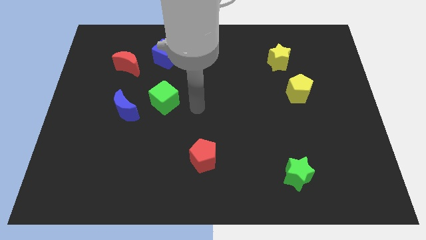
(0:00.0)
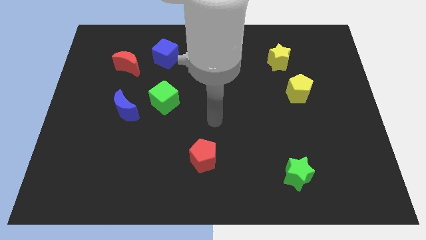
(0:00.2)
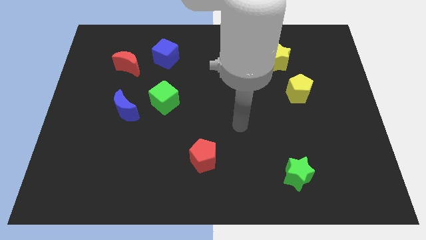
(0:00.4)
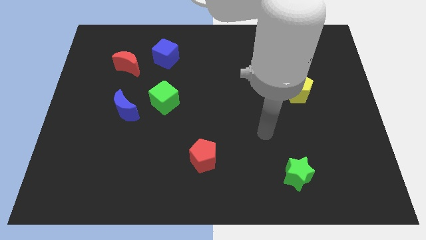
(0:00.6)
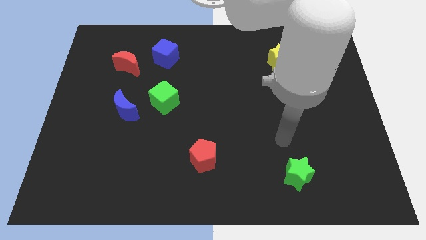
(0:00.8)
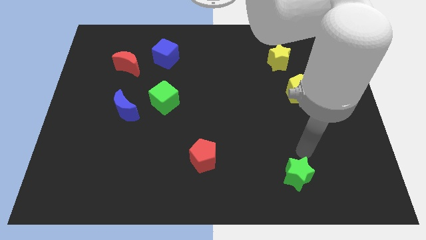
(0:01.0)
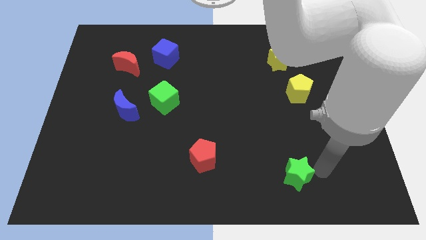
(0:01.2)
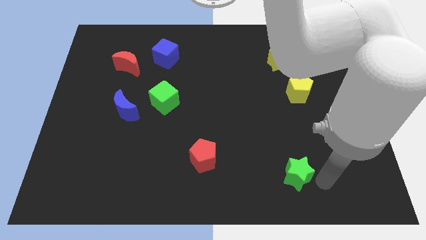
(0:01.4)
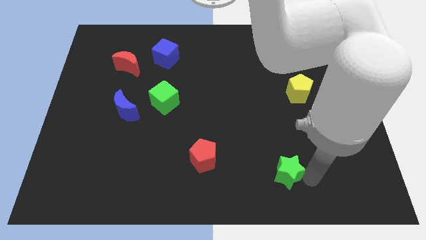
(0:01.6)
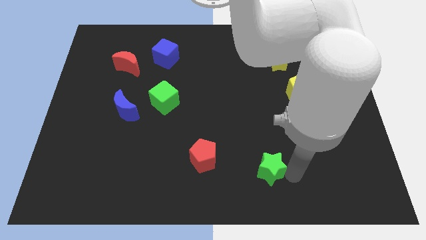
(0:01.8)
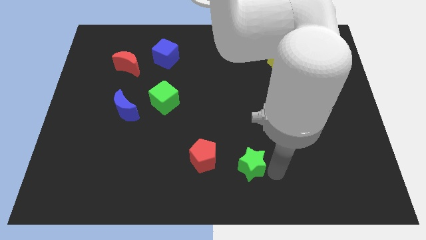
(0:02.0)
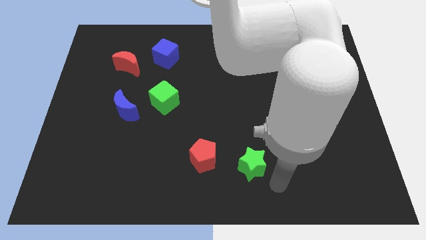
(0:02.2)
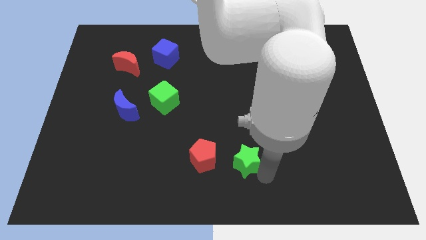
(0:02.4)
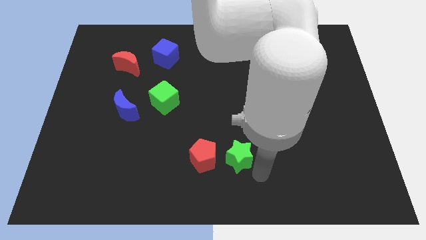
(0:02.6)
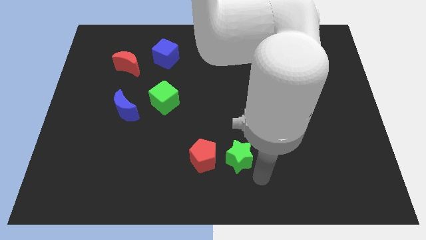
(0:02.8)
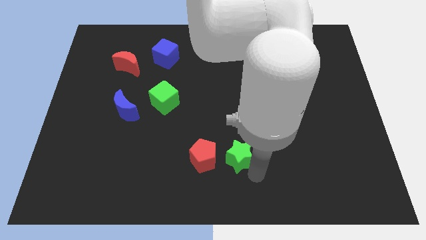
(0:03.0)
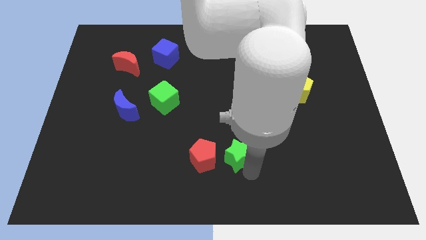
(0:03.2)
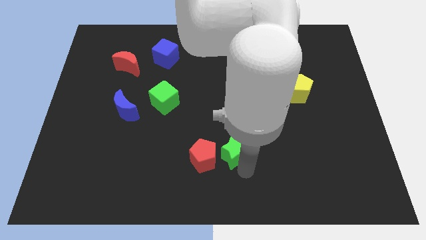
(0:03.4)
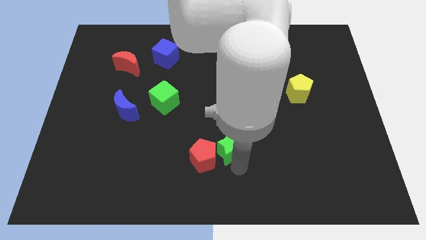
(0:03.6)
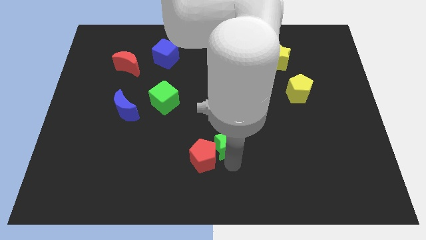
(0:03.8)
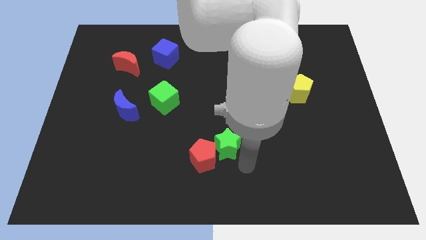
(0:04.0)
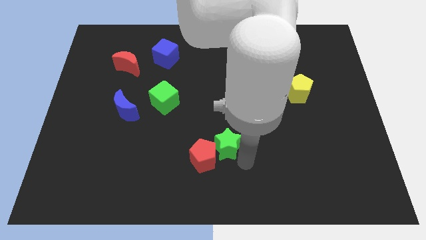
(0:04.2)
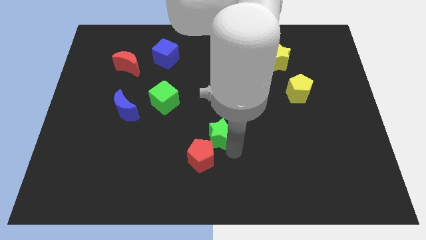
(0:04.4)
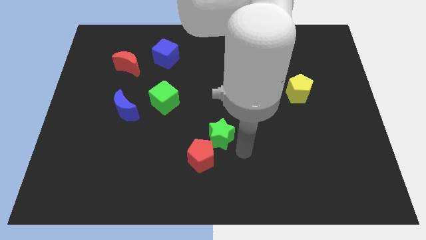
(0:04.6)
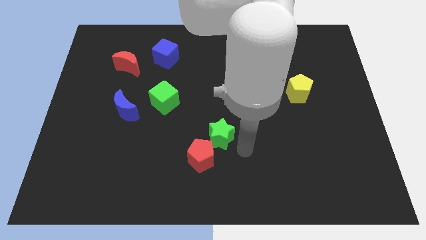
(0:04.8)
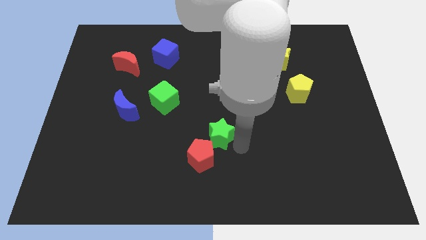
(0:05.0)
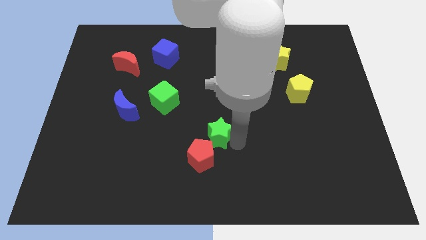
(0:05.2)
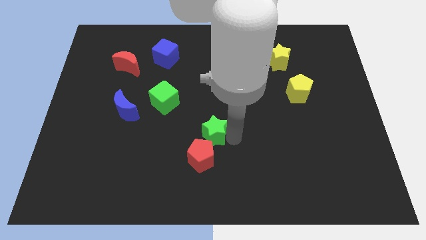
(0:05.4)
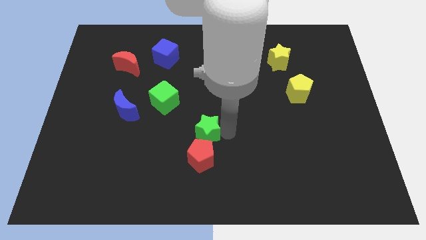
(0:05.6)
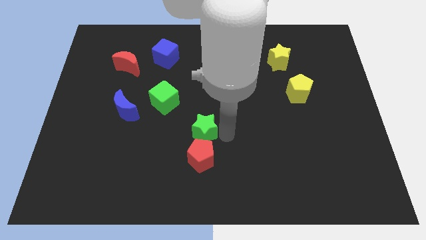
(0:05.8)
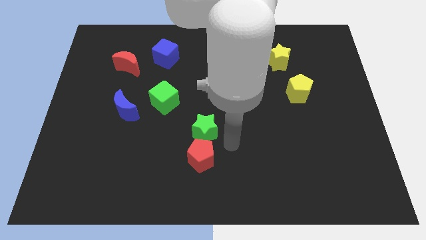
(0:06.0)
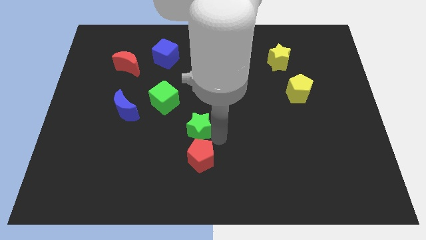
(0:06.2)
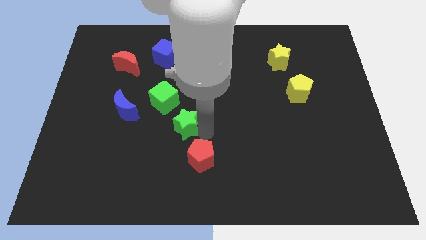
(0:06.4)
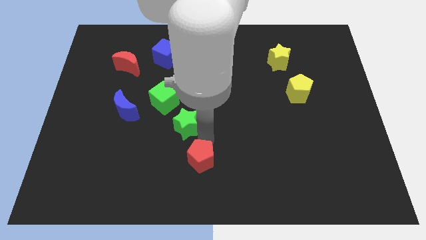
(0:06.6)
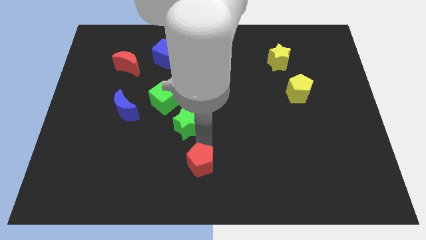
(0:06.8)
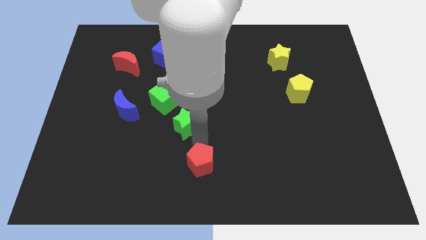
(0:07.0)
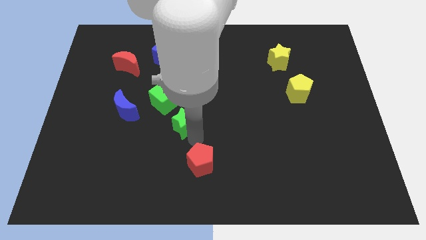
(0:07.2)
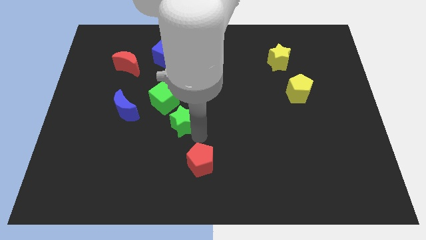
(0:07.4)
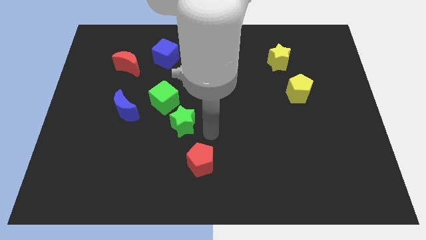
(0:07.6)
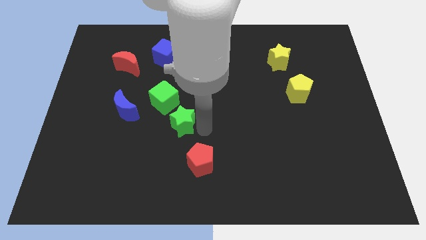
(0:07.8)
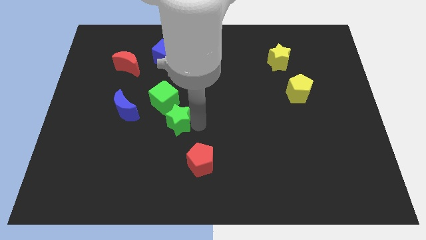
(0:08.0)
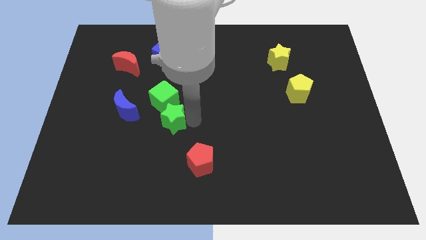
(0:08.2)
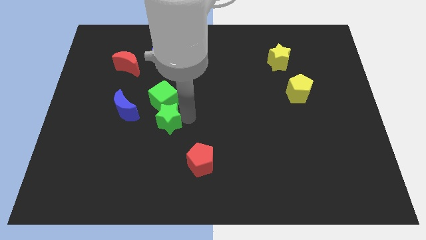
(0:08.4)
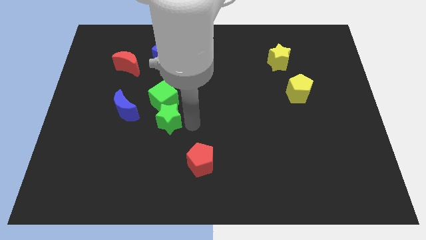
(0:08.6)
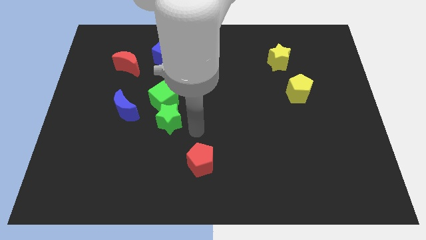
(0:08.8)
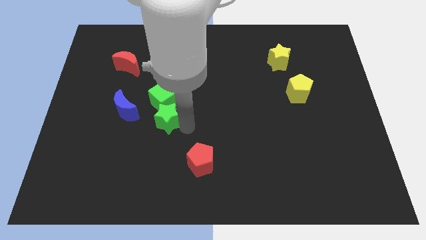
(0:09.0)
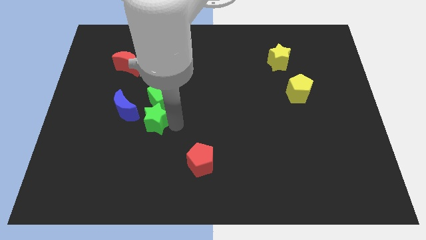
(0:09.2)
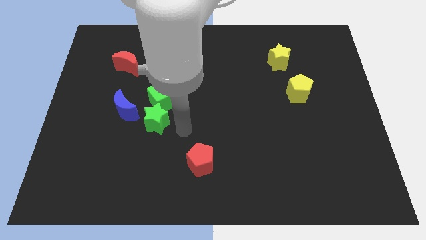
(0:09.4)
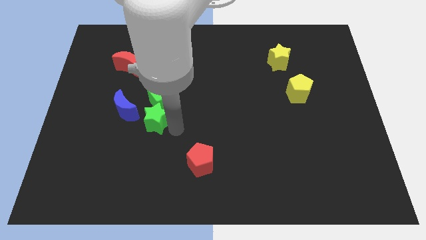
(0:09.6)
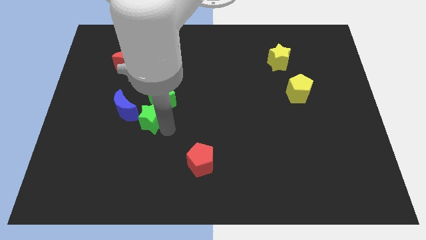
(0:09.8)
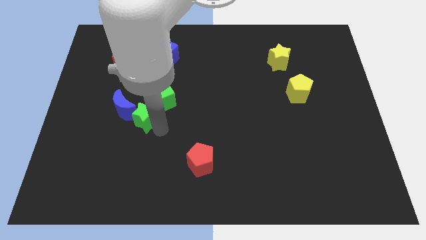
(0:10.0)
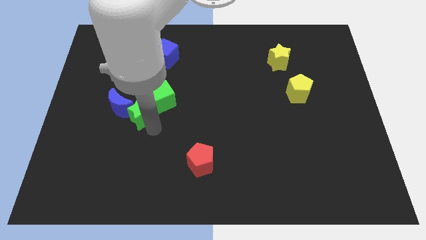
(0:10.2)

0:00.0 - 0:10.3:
slide the green star towards the blue moon

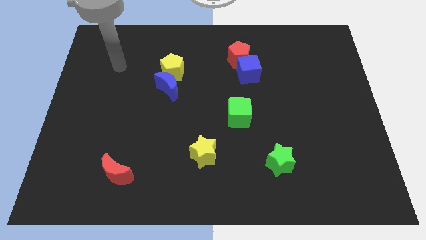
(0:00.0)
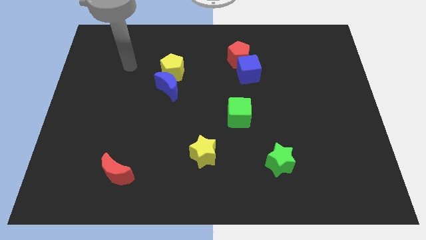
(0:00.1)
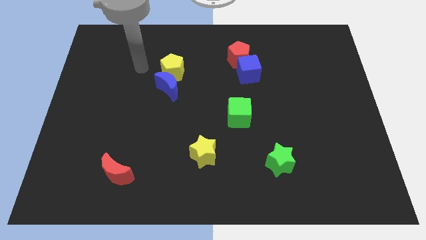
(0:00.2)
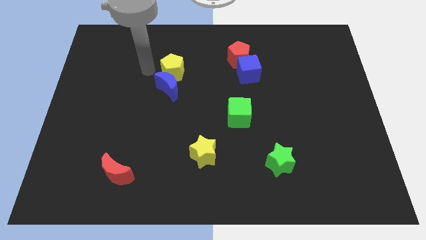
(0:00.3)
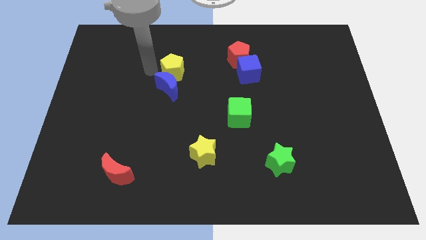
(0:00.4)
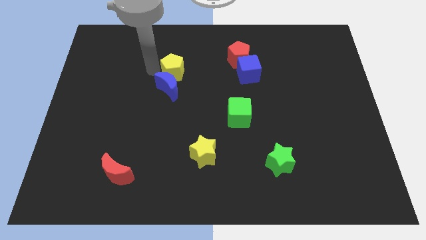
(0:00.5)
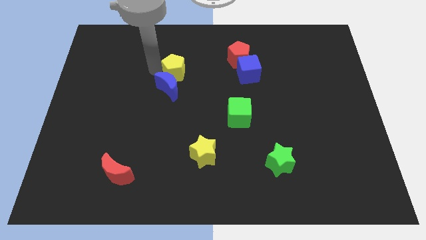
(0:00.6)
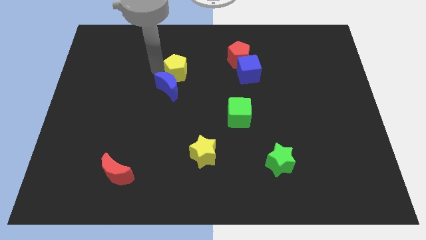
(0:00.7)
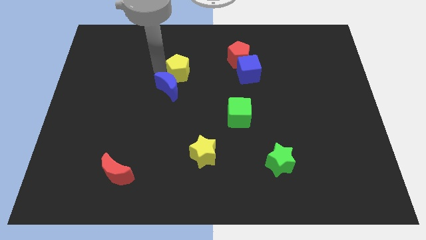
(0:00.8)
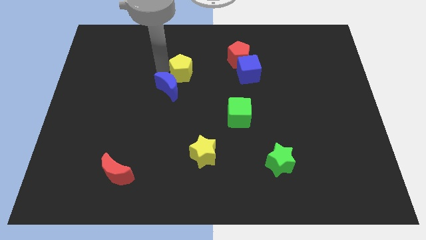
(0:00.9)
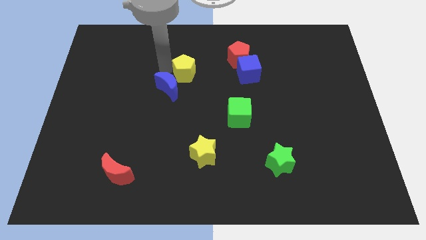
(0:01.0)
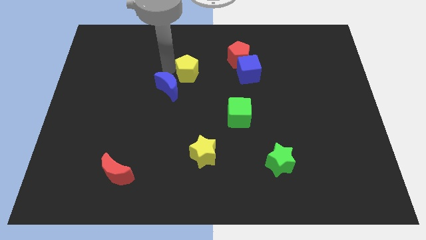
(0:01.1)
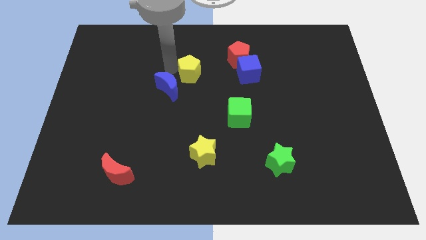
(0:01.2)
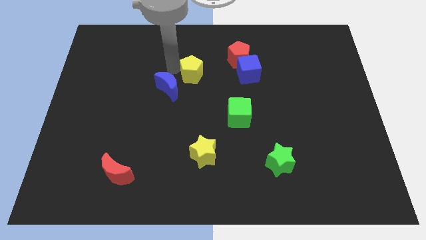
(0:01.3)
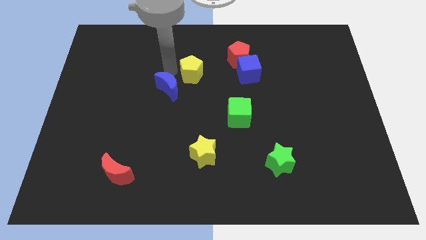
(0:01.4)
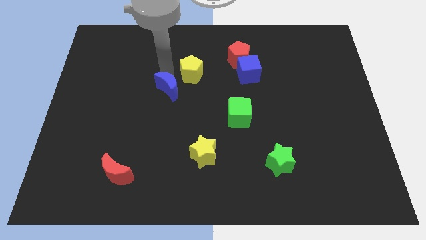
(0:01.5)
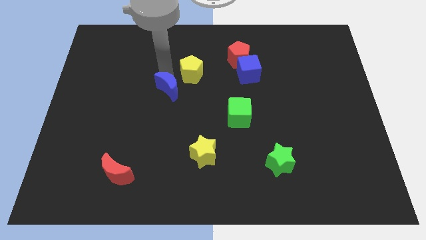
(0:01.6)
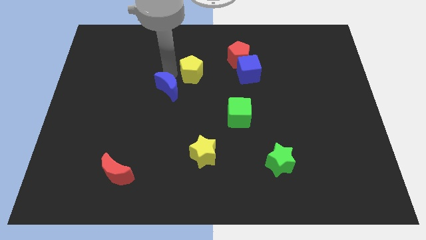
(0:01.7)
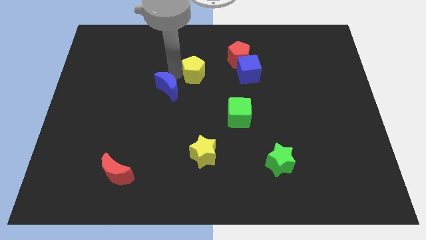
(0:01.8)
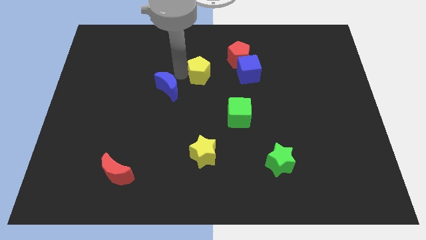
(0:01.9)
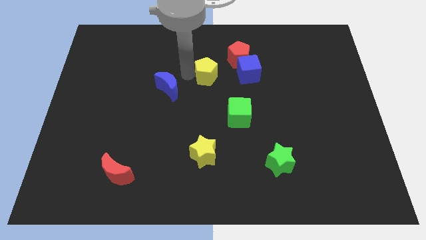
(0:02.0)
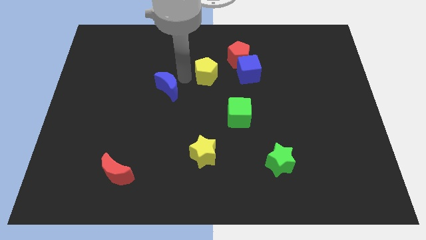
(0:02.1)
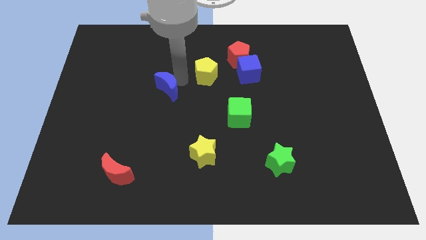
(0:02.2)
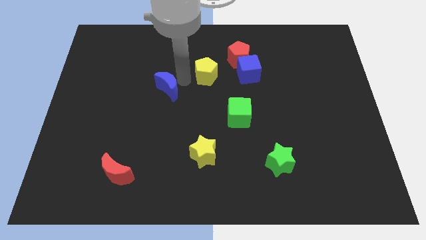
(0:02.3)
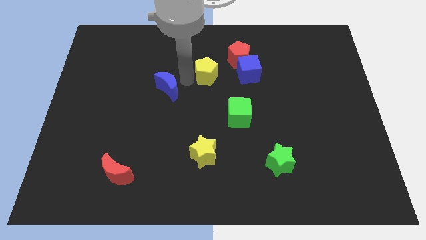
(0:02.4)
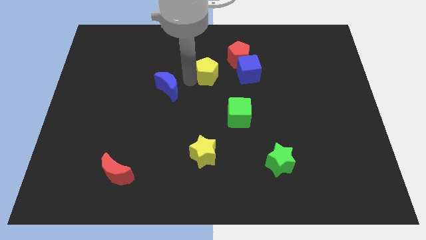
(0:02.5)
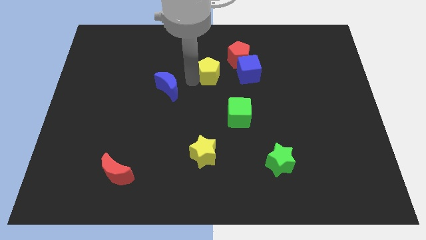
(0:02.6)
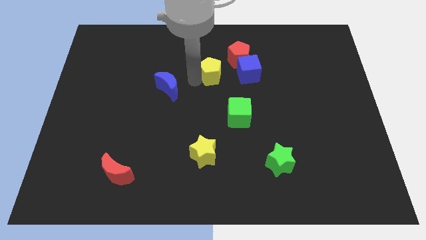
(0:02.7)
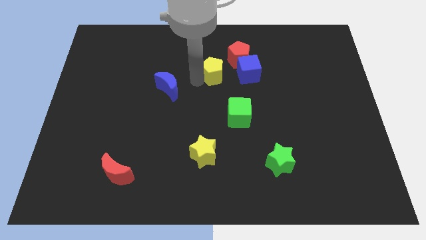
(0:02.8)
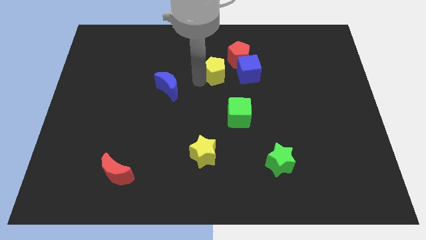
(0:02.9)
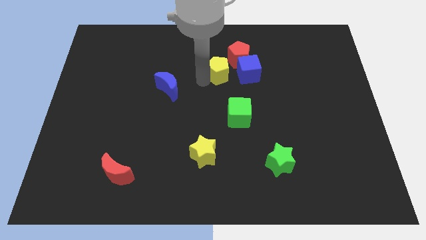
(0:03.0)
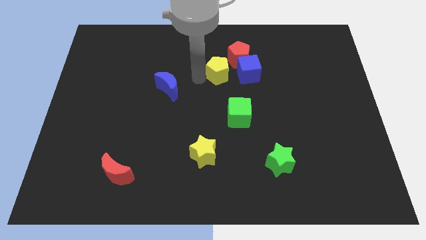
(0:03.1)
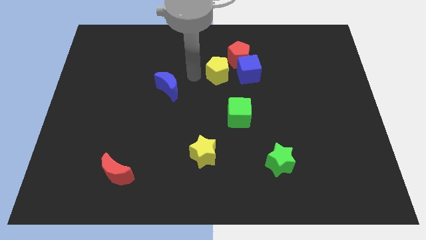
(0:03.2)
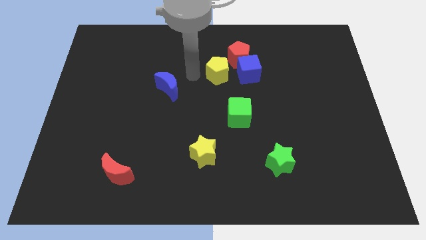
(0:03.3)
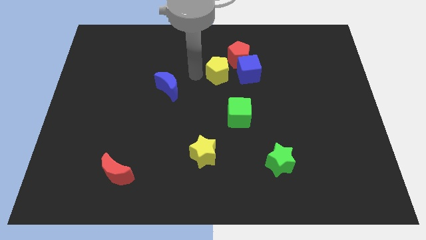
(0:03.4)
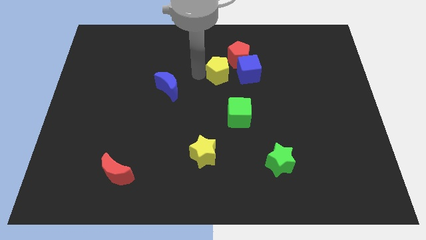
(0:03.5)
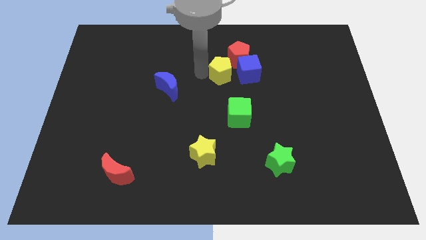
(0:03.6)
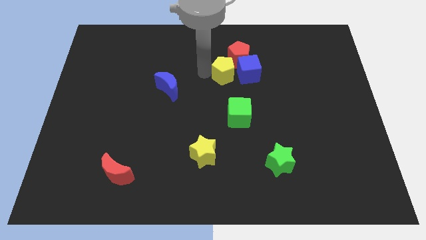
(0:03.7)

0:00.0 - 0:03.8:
slide the yellow pentagon to the blue cube
